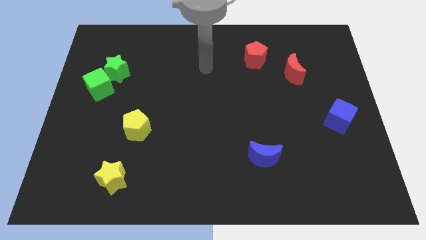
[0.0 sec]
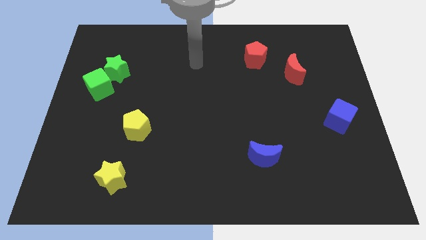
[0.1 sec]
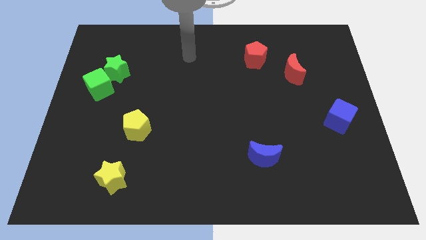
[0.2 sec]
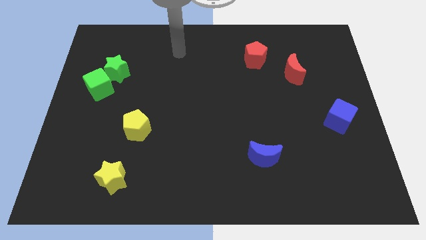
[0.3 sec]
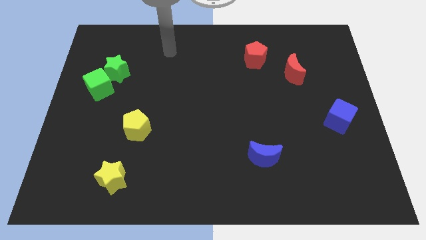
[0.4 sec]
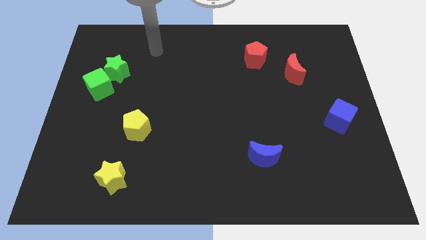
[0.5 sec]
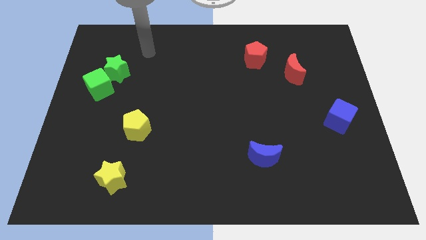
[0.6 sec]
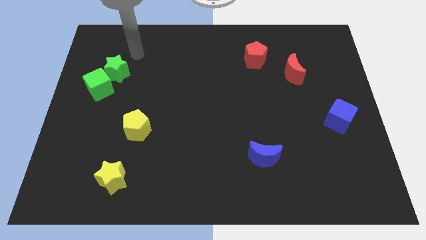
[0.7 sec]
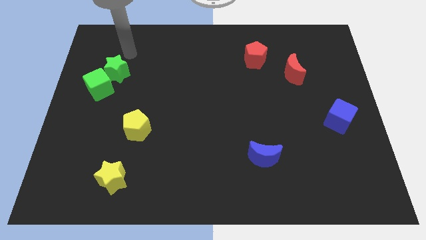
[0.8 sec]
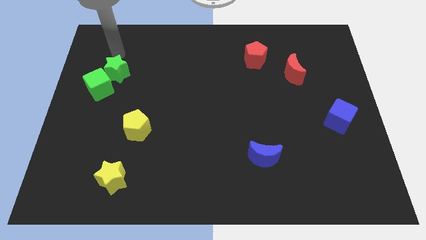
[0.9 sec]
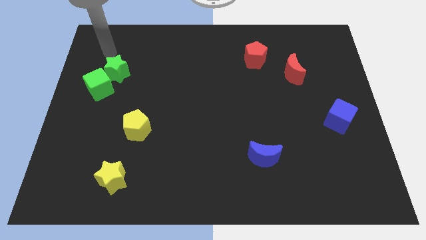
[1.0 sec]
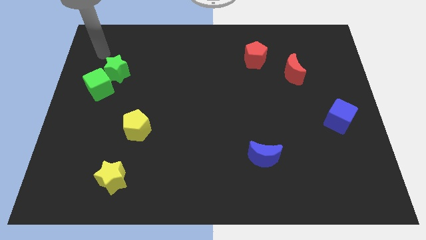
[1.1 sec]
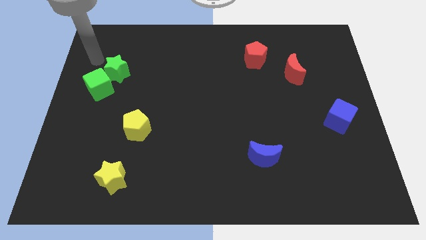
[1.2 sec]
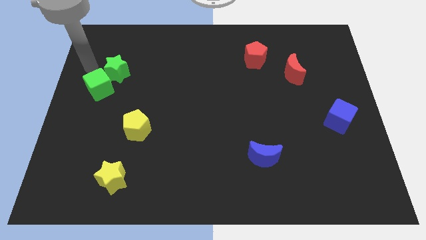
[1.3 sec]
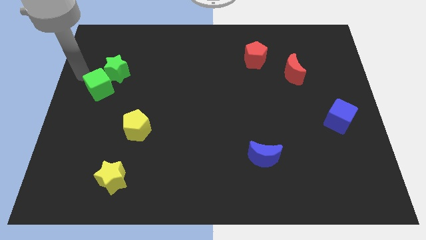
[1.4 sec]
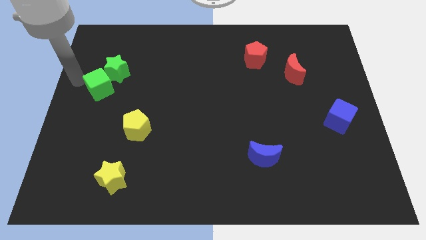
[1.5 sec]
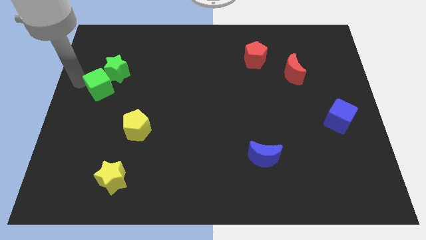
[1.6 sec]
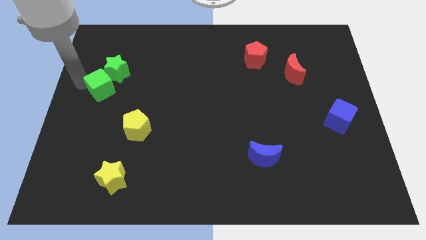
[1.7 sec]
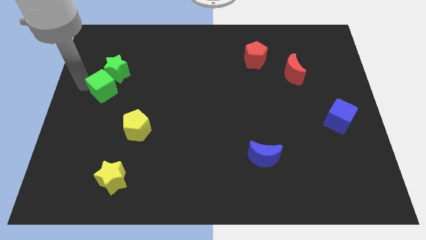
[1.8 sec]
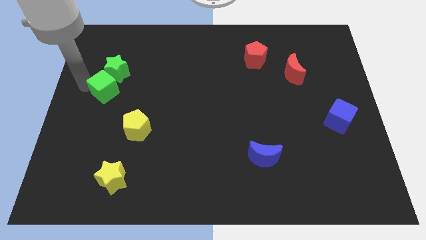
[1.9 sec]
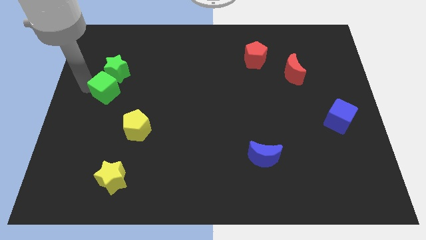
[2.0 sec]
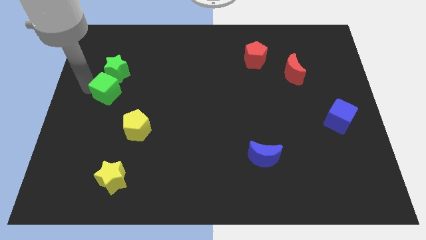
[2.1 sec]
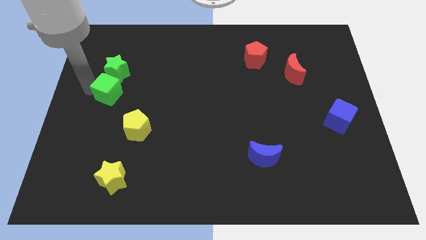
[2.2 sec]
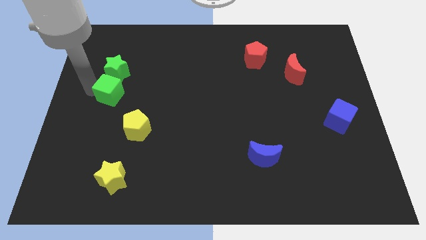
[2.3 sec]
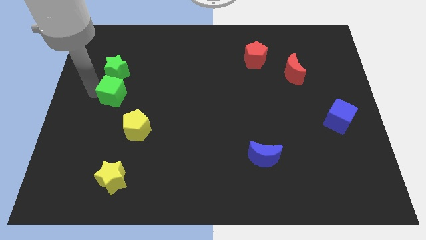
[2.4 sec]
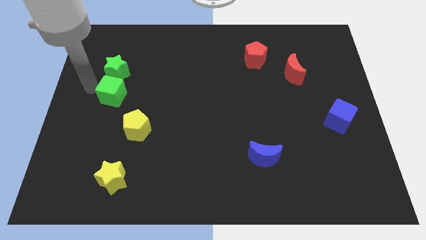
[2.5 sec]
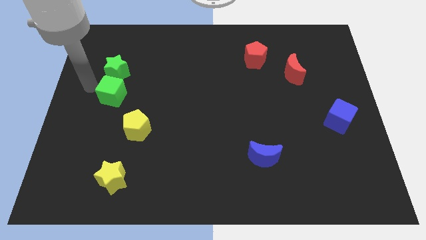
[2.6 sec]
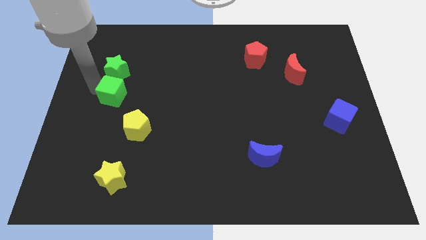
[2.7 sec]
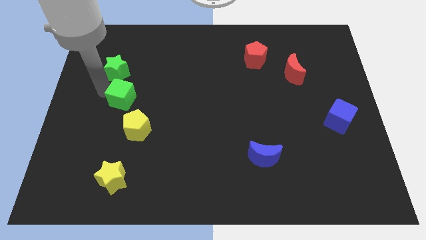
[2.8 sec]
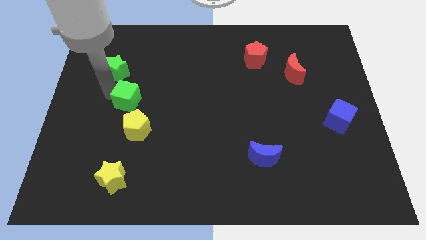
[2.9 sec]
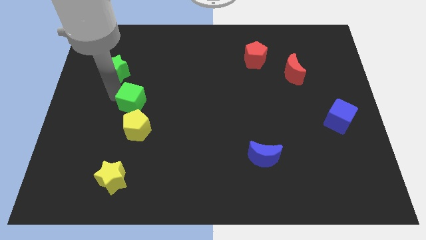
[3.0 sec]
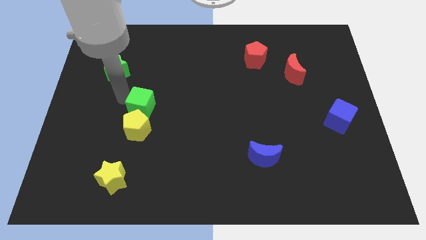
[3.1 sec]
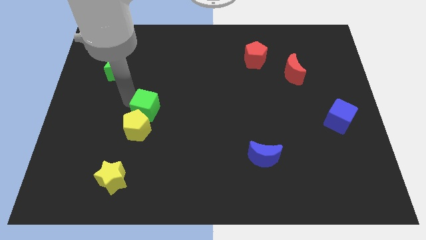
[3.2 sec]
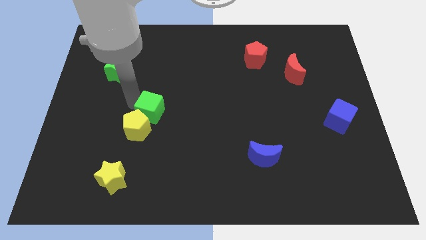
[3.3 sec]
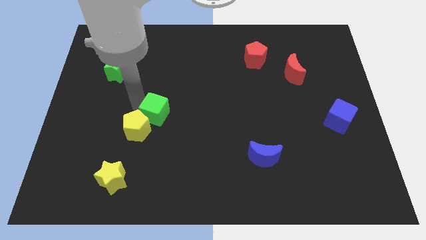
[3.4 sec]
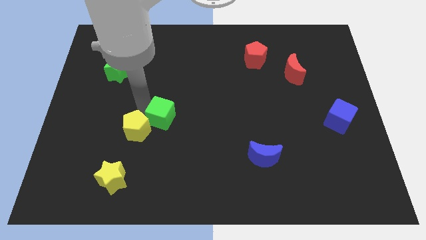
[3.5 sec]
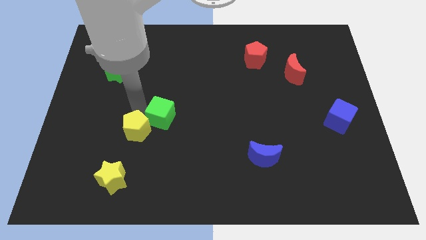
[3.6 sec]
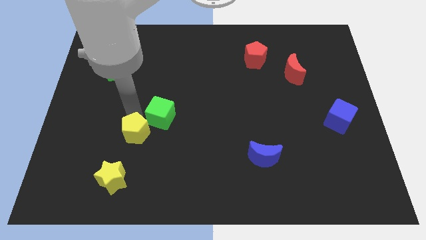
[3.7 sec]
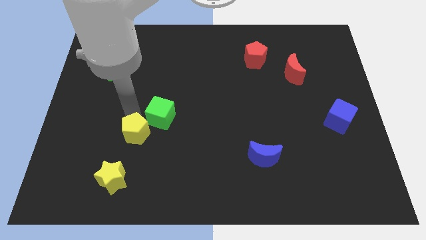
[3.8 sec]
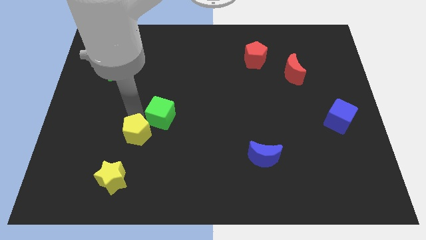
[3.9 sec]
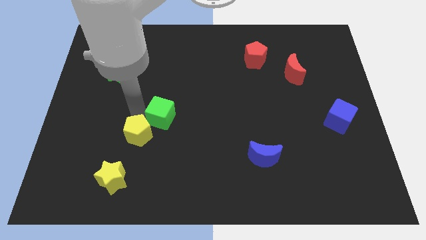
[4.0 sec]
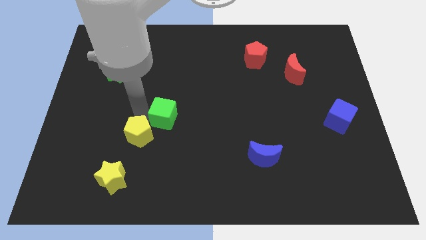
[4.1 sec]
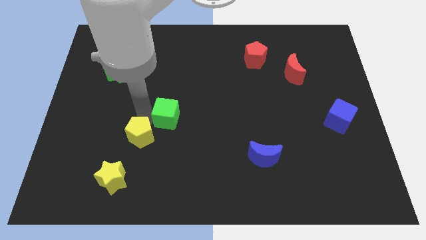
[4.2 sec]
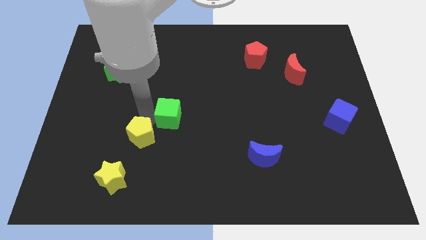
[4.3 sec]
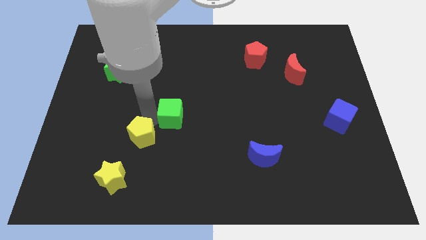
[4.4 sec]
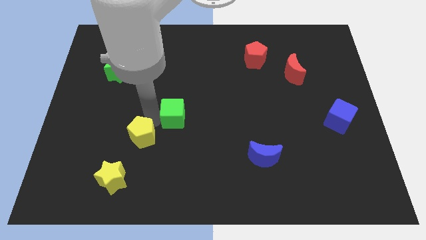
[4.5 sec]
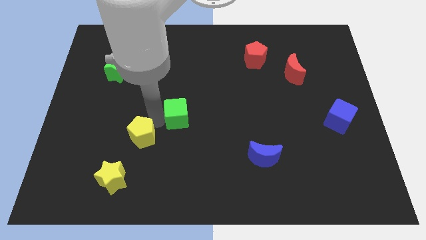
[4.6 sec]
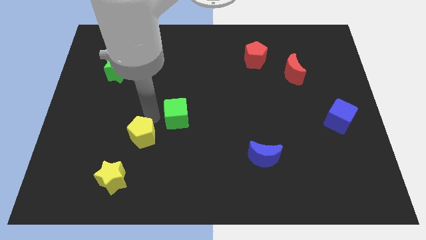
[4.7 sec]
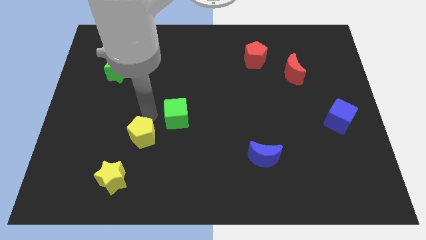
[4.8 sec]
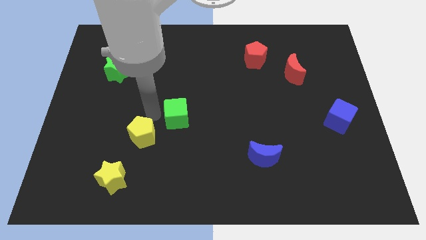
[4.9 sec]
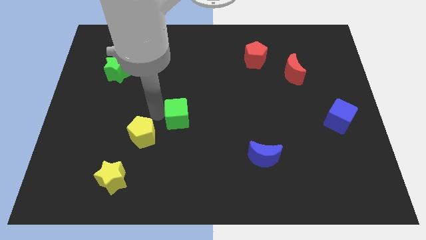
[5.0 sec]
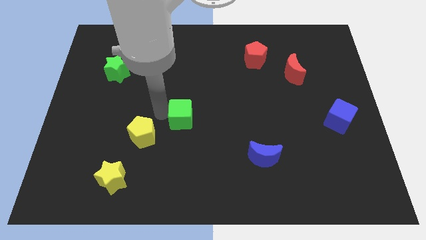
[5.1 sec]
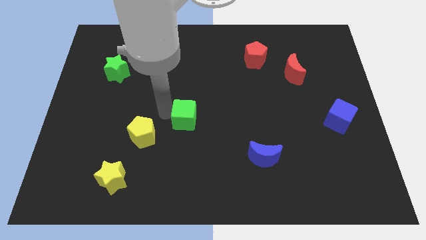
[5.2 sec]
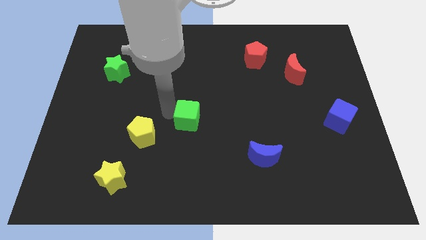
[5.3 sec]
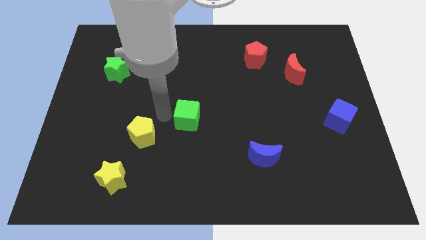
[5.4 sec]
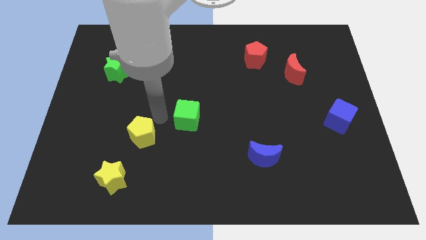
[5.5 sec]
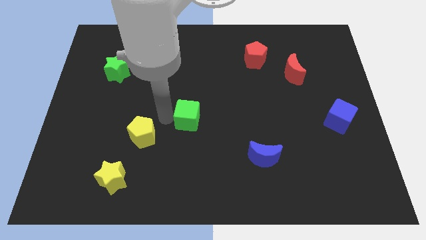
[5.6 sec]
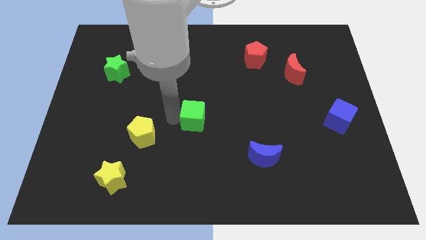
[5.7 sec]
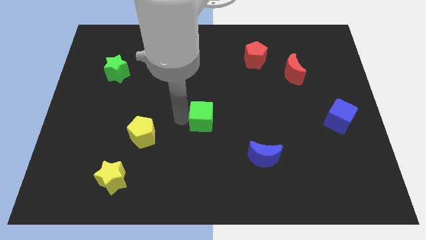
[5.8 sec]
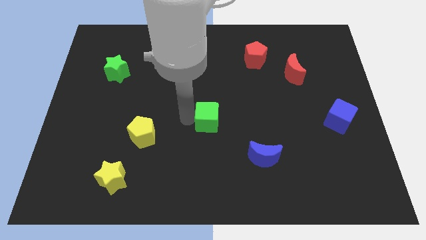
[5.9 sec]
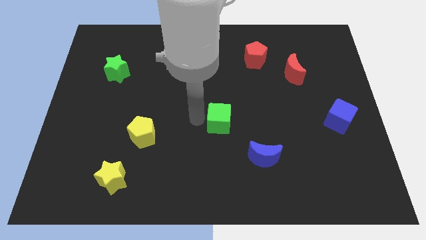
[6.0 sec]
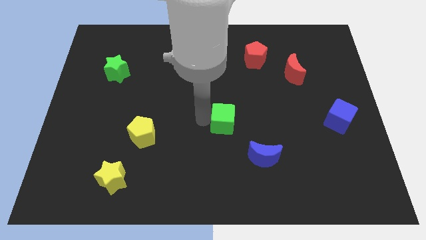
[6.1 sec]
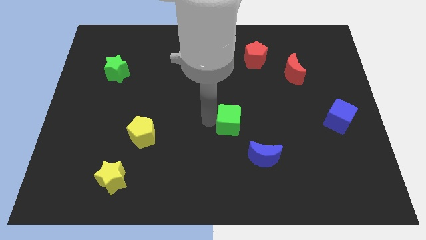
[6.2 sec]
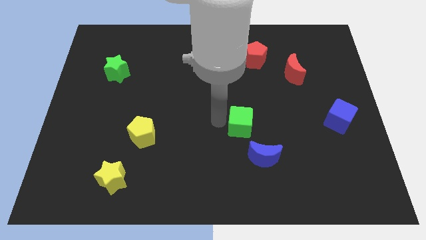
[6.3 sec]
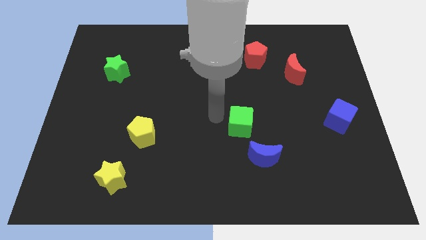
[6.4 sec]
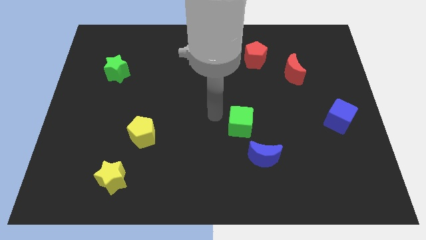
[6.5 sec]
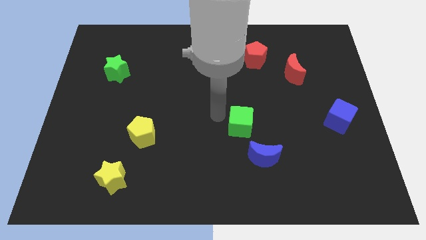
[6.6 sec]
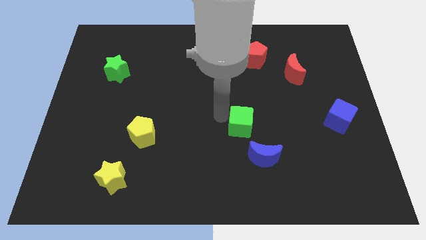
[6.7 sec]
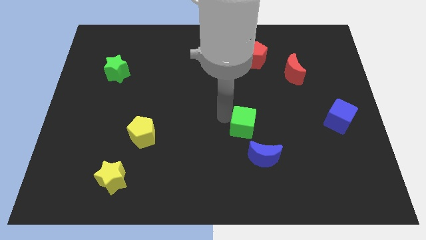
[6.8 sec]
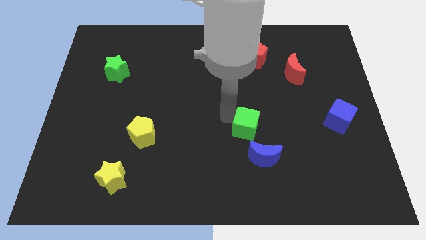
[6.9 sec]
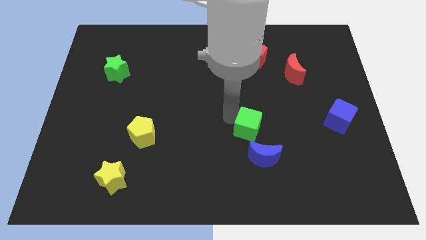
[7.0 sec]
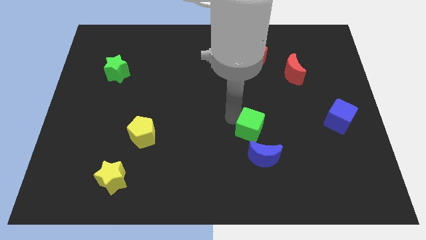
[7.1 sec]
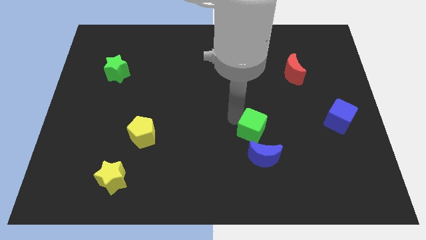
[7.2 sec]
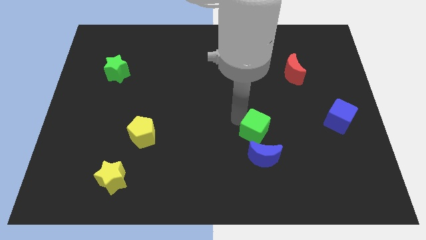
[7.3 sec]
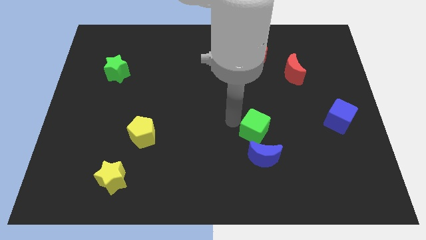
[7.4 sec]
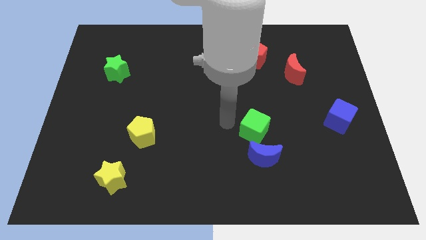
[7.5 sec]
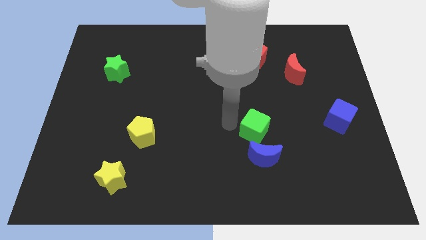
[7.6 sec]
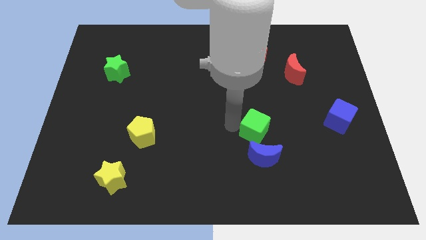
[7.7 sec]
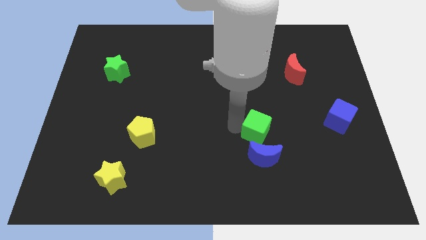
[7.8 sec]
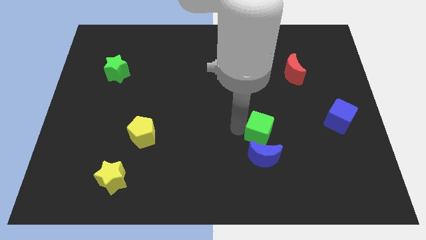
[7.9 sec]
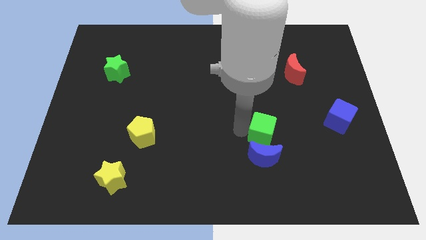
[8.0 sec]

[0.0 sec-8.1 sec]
slide the green cube to the top right side of the blue moon
